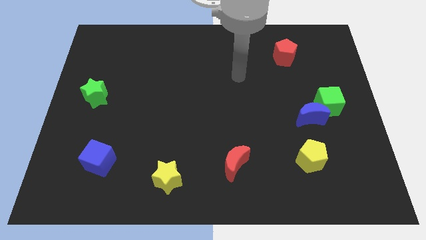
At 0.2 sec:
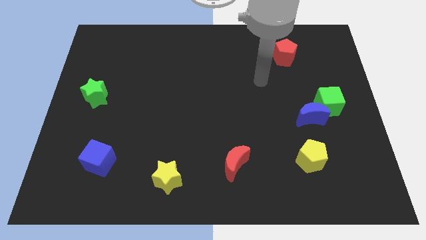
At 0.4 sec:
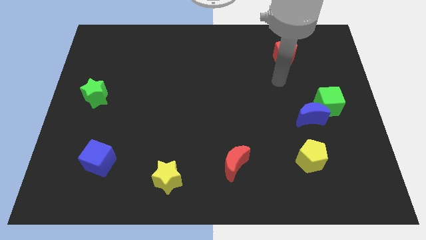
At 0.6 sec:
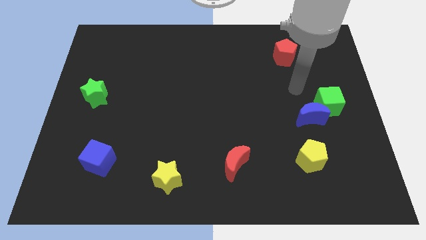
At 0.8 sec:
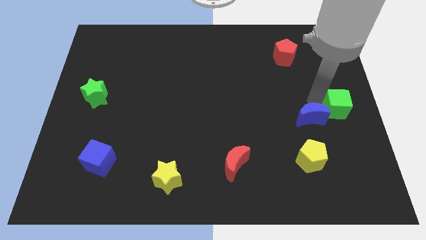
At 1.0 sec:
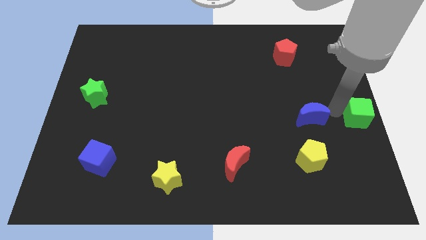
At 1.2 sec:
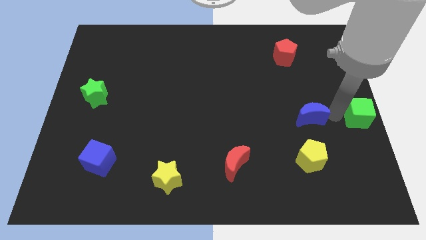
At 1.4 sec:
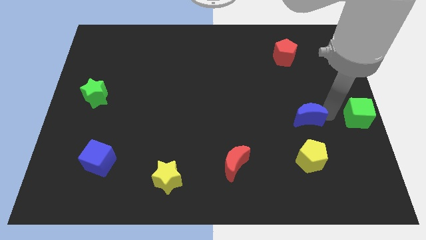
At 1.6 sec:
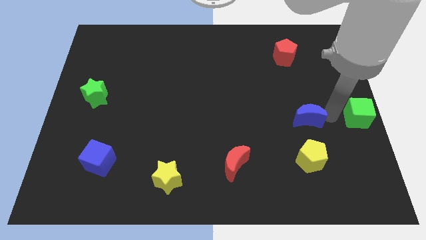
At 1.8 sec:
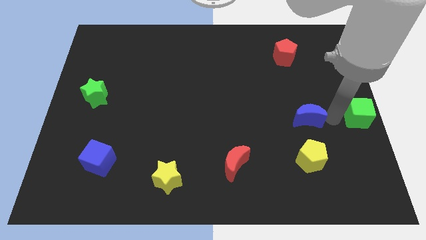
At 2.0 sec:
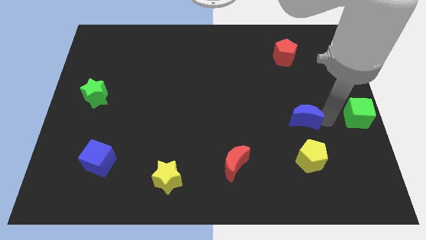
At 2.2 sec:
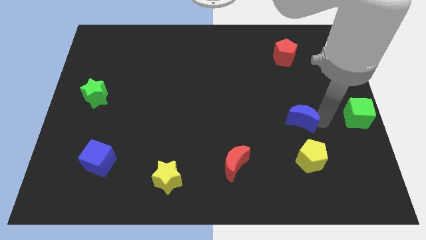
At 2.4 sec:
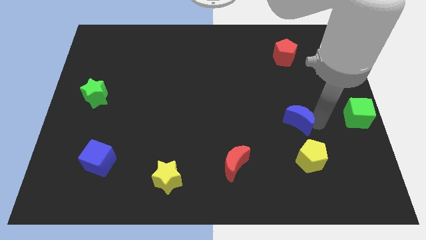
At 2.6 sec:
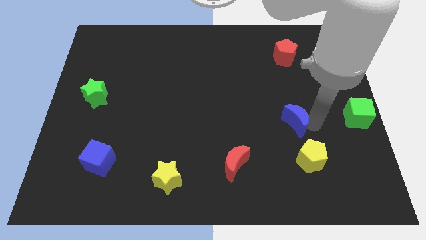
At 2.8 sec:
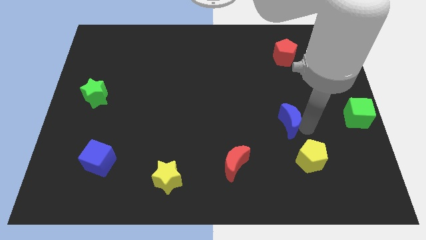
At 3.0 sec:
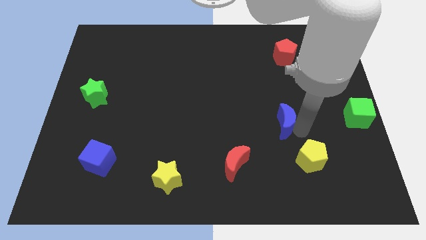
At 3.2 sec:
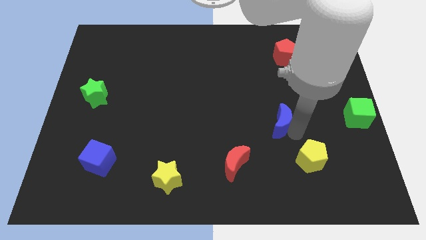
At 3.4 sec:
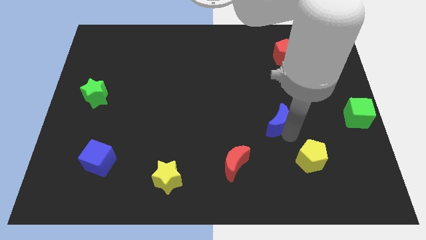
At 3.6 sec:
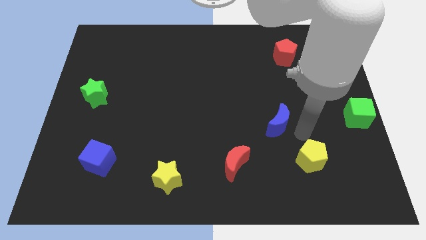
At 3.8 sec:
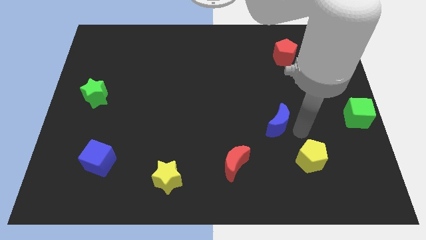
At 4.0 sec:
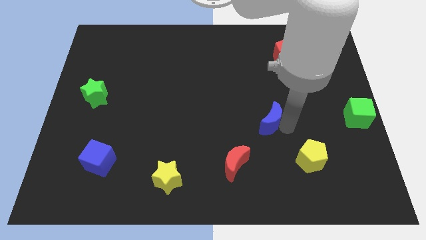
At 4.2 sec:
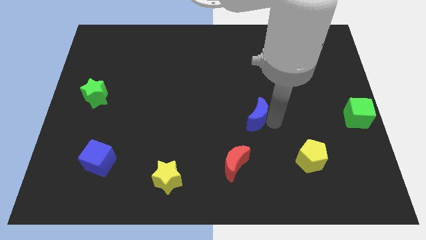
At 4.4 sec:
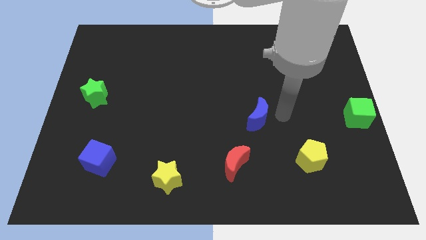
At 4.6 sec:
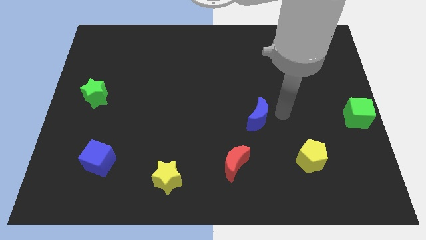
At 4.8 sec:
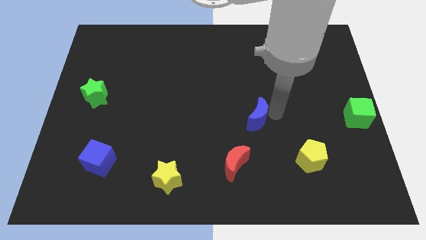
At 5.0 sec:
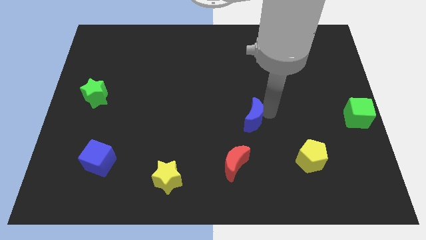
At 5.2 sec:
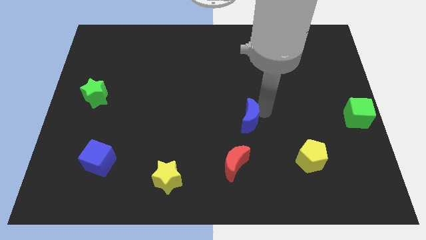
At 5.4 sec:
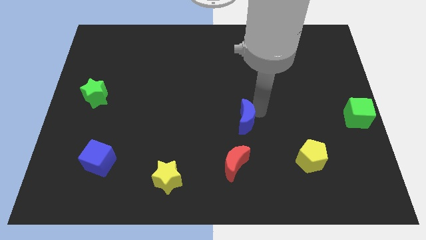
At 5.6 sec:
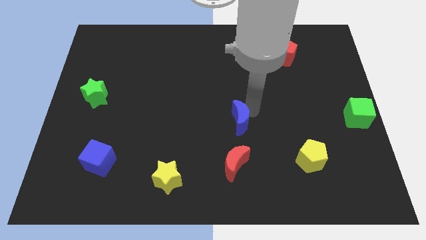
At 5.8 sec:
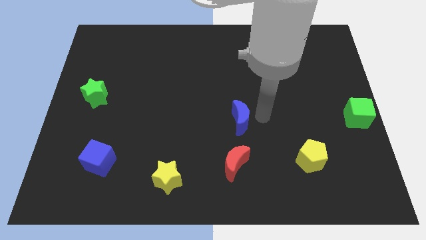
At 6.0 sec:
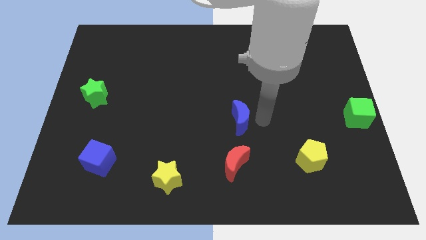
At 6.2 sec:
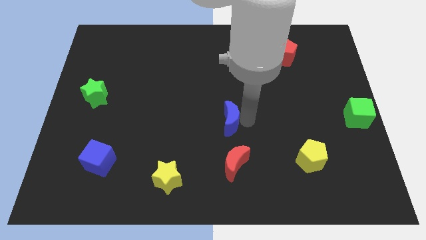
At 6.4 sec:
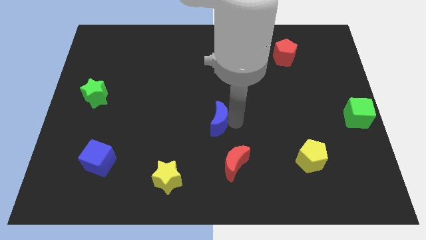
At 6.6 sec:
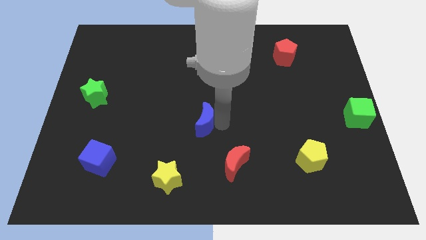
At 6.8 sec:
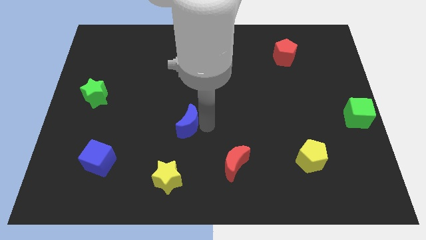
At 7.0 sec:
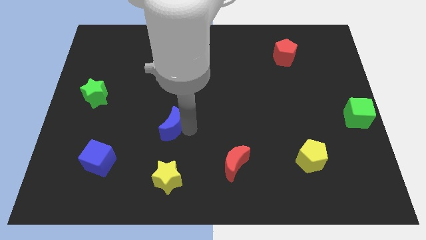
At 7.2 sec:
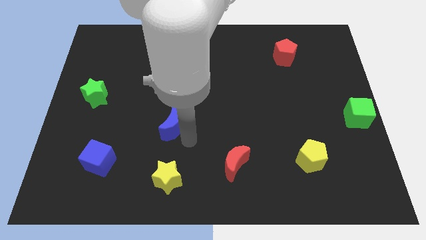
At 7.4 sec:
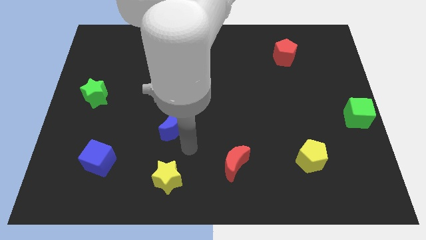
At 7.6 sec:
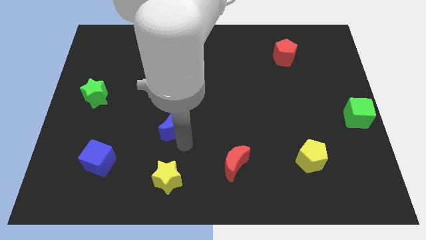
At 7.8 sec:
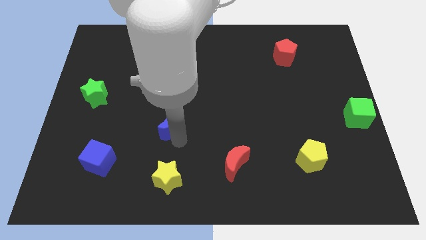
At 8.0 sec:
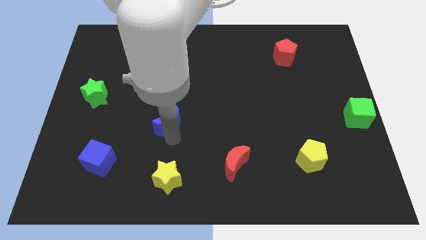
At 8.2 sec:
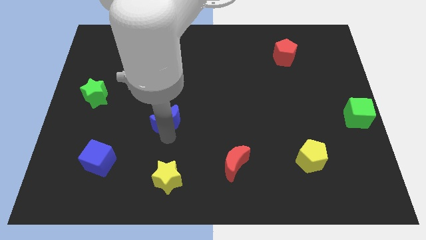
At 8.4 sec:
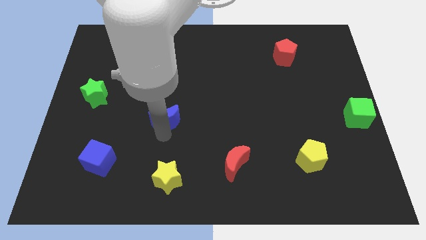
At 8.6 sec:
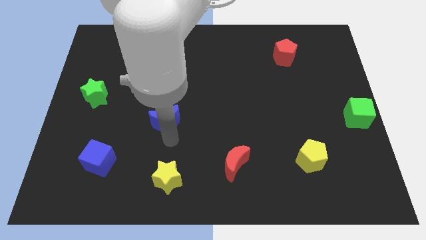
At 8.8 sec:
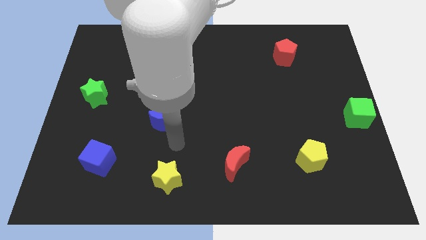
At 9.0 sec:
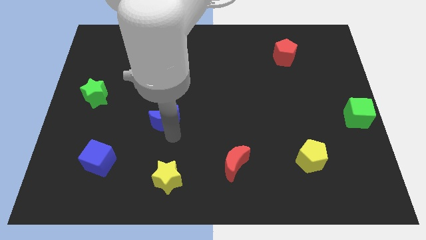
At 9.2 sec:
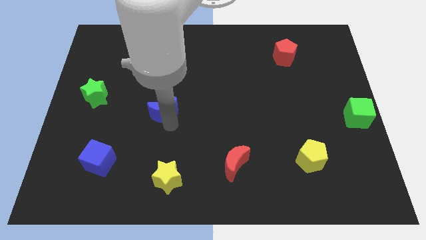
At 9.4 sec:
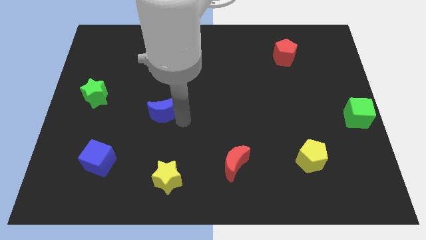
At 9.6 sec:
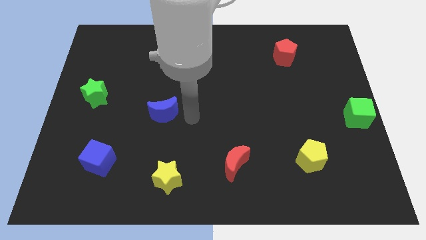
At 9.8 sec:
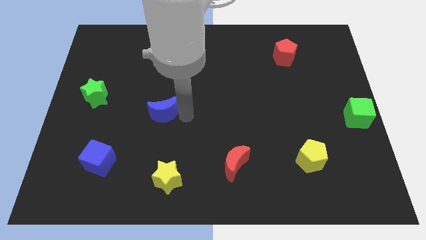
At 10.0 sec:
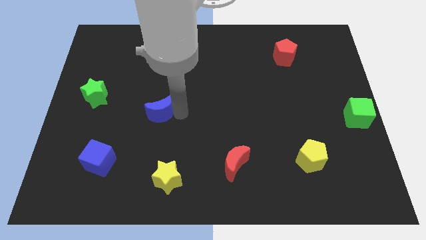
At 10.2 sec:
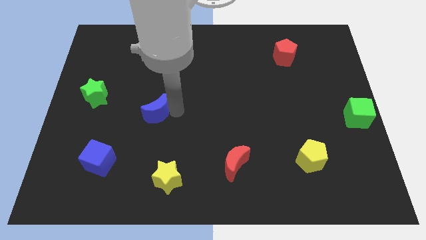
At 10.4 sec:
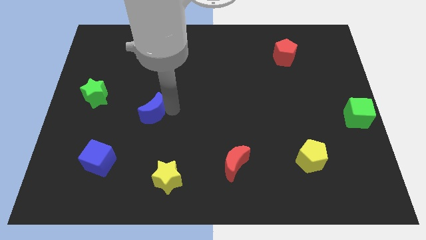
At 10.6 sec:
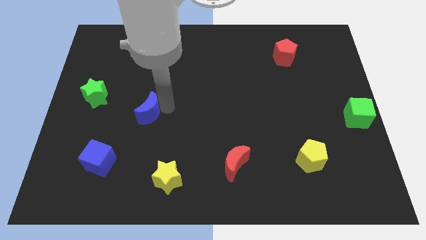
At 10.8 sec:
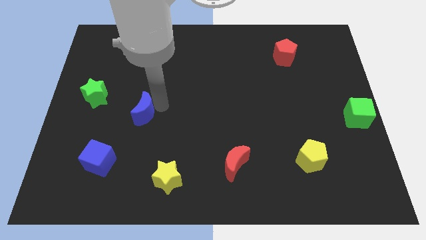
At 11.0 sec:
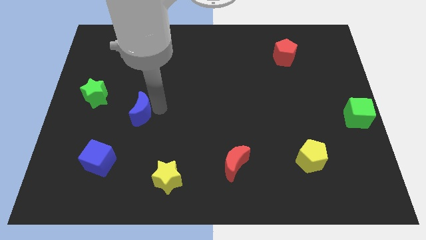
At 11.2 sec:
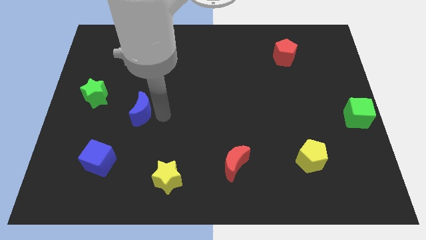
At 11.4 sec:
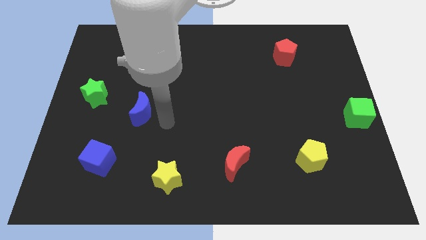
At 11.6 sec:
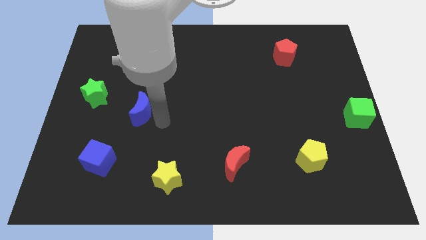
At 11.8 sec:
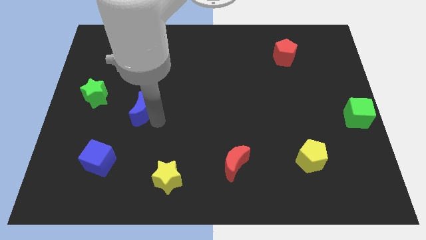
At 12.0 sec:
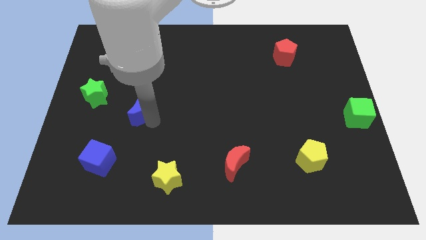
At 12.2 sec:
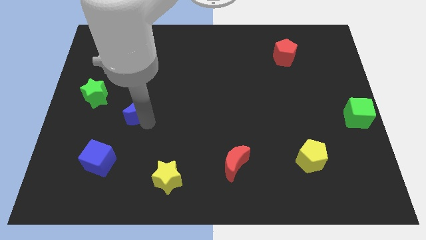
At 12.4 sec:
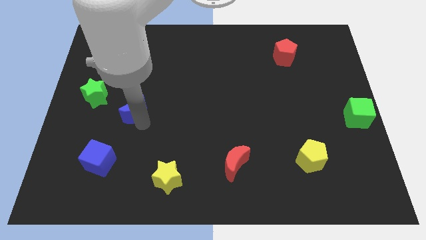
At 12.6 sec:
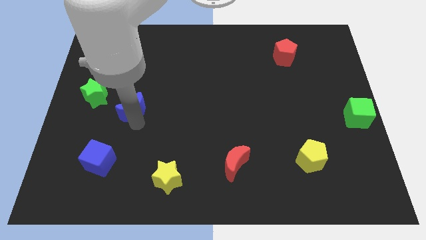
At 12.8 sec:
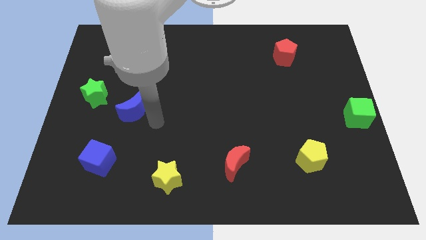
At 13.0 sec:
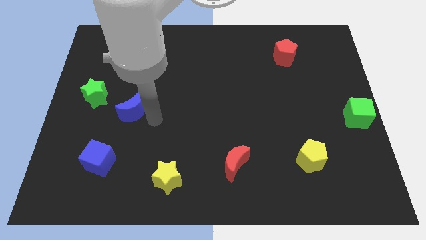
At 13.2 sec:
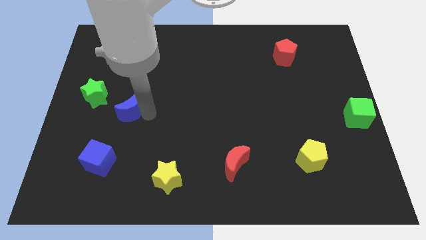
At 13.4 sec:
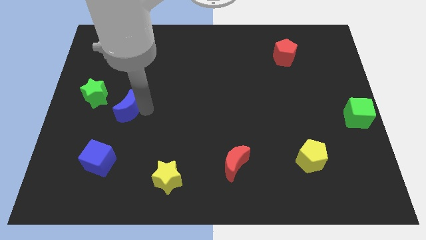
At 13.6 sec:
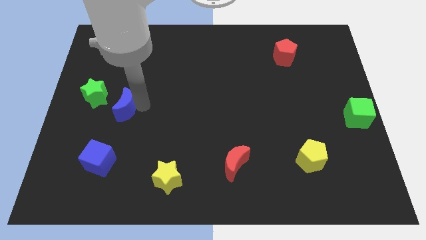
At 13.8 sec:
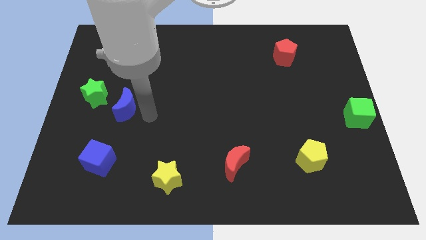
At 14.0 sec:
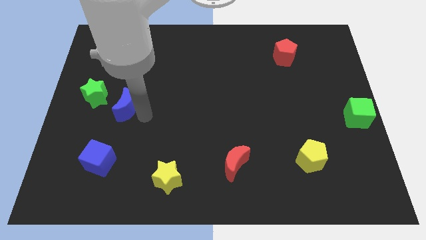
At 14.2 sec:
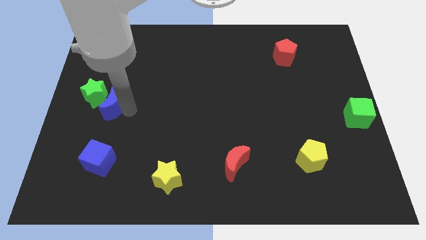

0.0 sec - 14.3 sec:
push the blue moon next to the green star

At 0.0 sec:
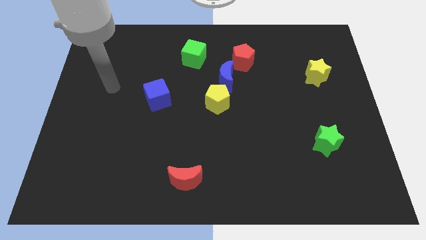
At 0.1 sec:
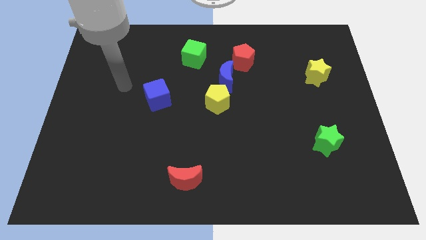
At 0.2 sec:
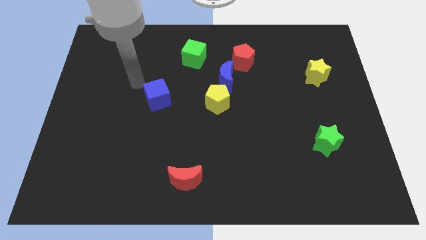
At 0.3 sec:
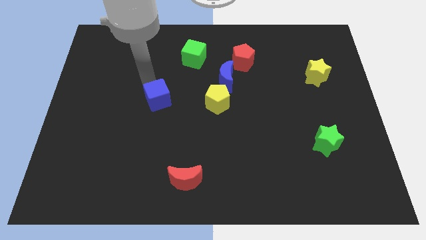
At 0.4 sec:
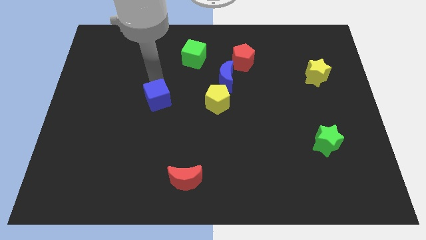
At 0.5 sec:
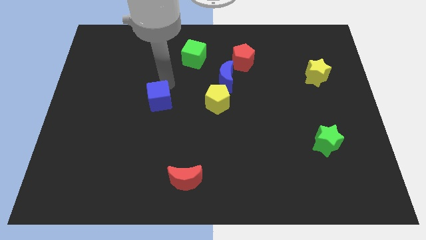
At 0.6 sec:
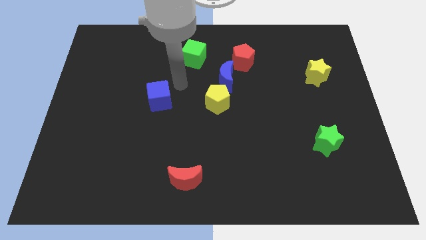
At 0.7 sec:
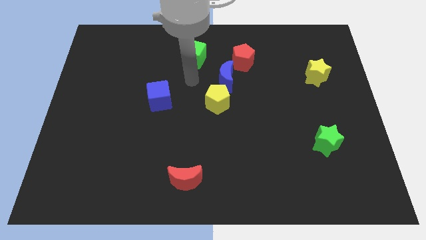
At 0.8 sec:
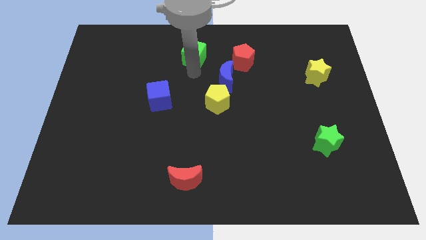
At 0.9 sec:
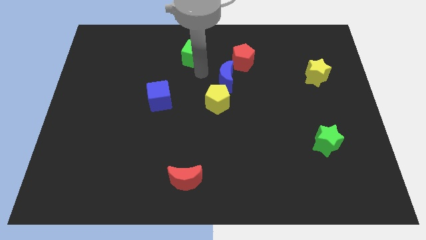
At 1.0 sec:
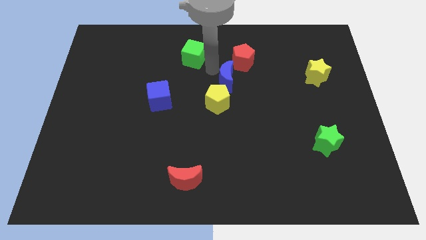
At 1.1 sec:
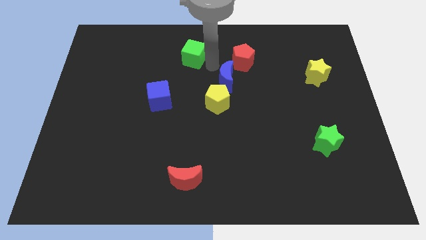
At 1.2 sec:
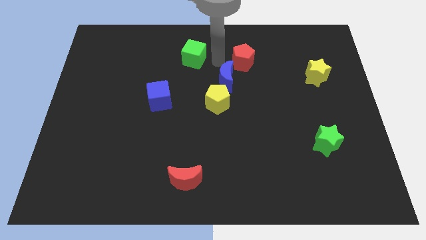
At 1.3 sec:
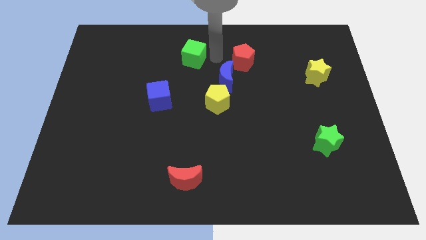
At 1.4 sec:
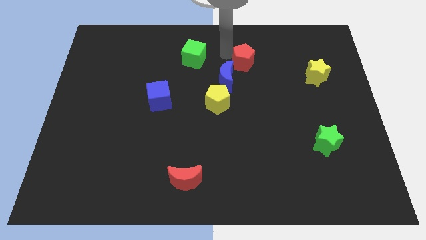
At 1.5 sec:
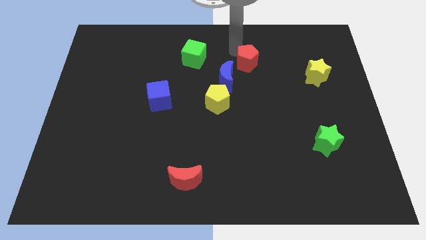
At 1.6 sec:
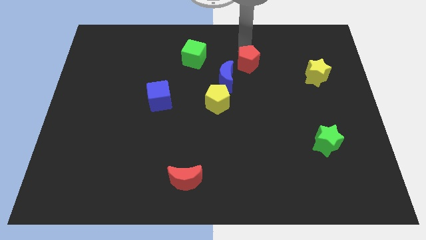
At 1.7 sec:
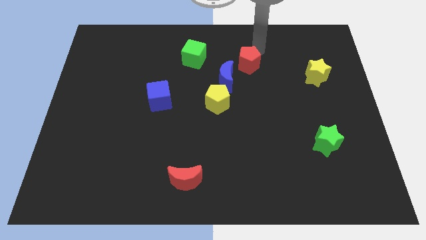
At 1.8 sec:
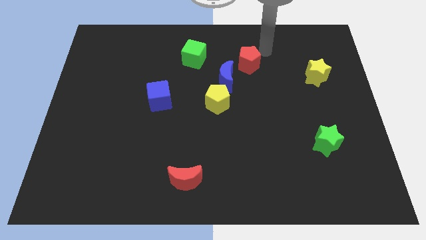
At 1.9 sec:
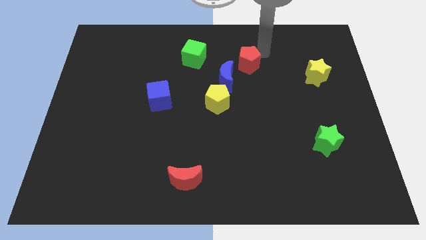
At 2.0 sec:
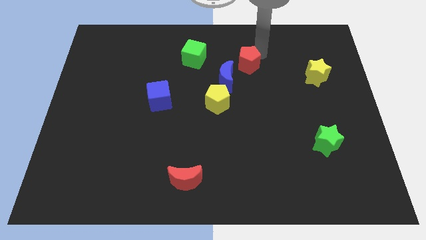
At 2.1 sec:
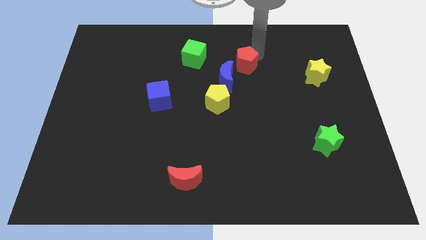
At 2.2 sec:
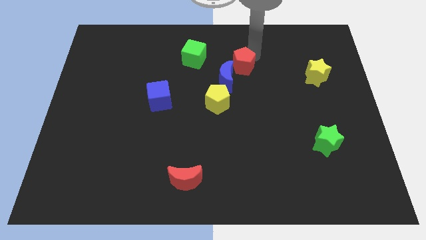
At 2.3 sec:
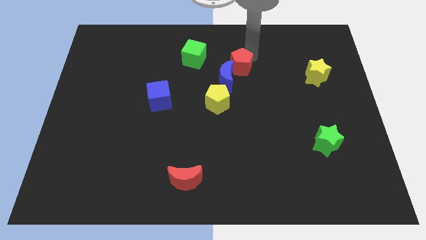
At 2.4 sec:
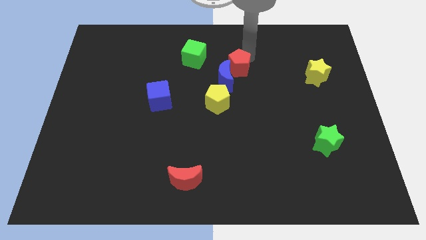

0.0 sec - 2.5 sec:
push the red pentagon to the blue moon
